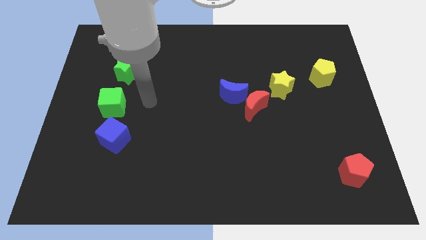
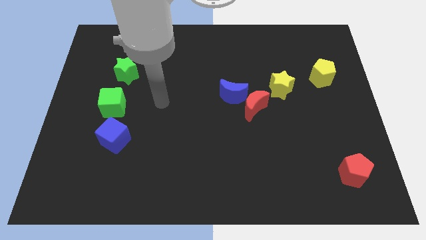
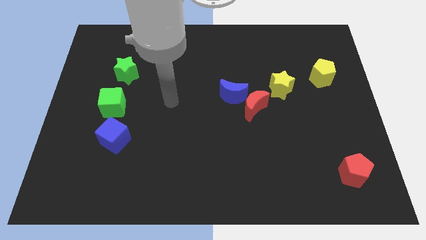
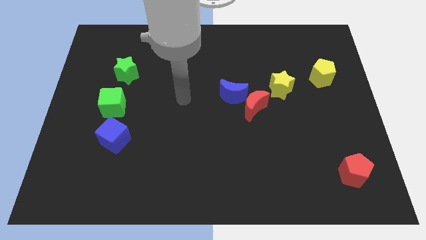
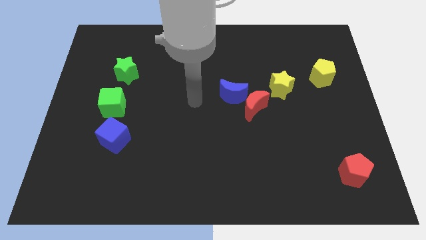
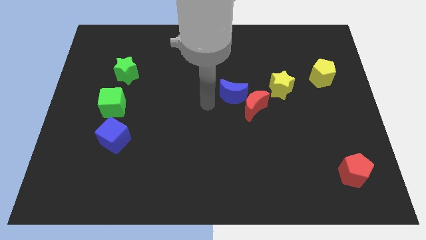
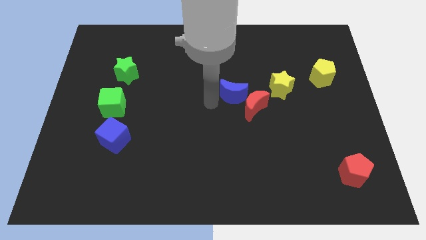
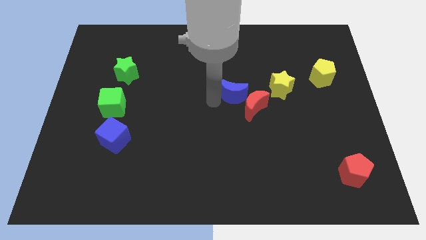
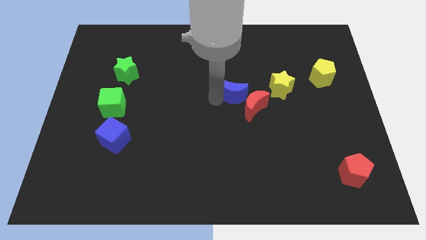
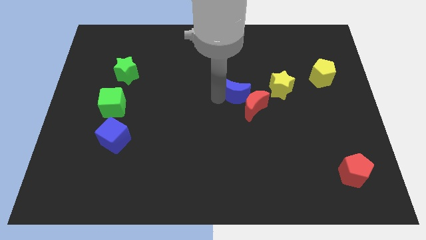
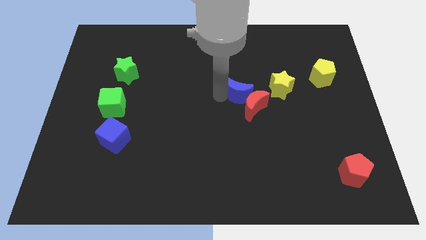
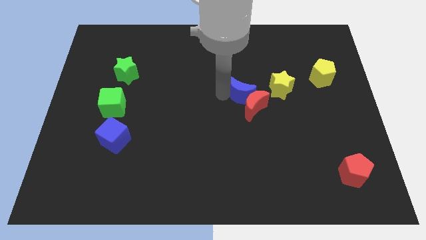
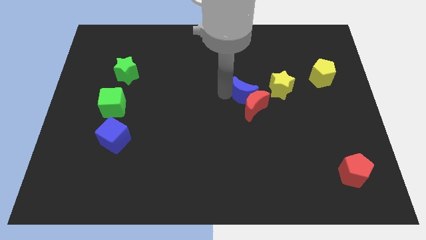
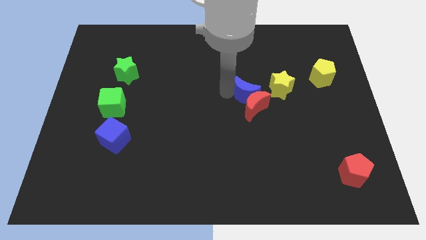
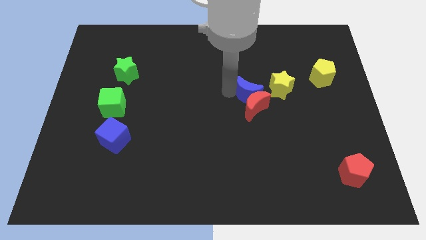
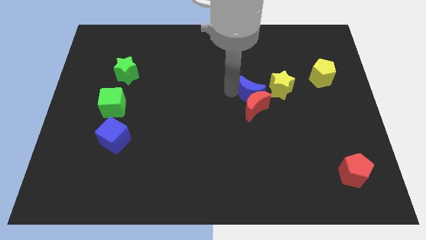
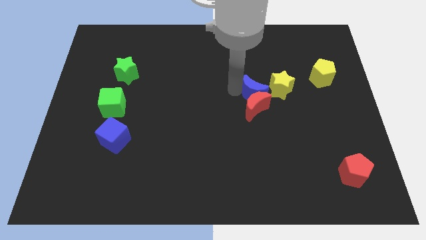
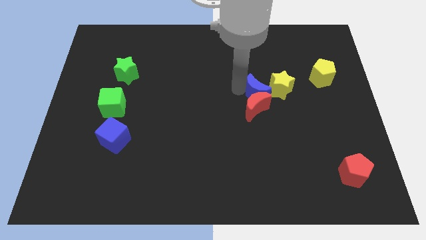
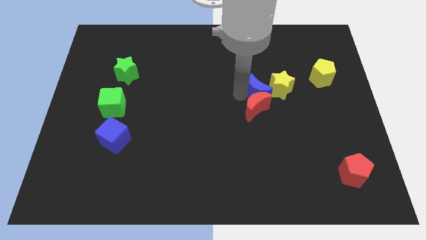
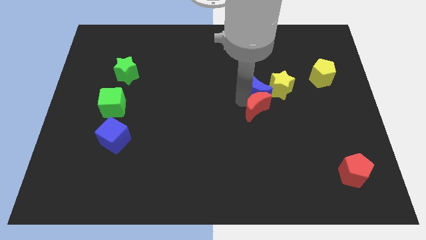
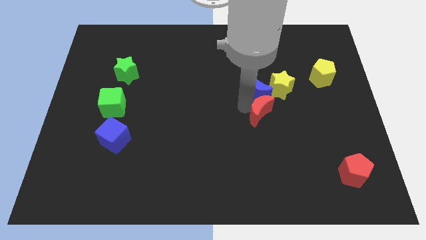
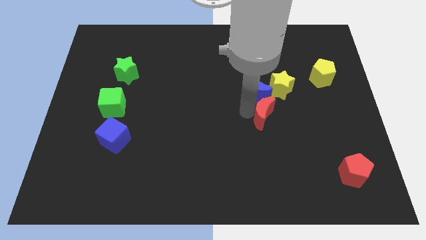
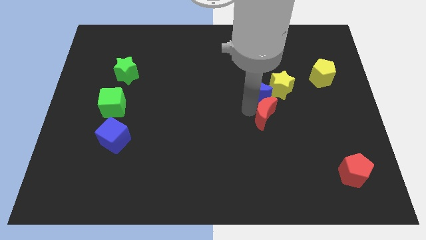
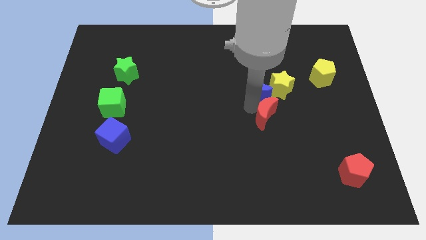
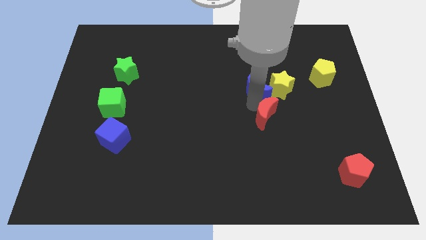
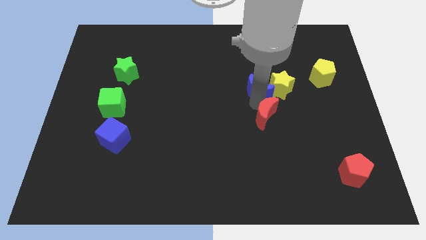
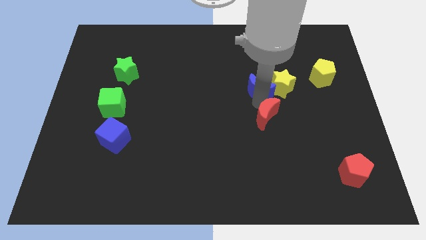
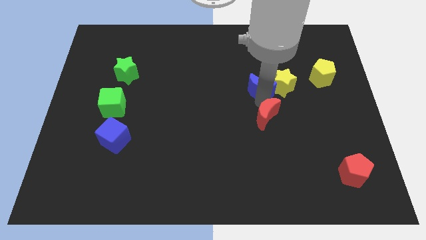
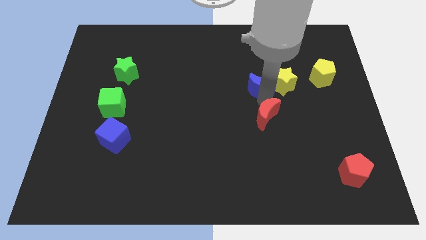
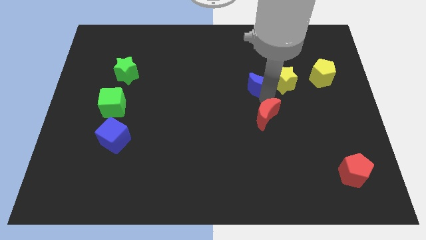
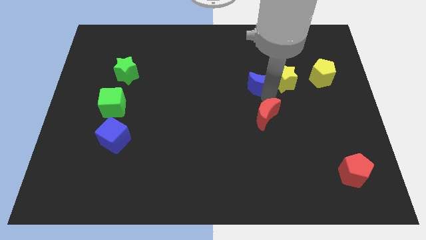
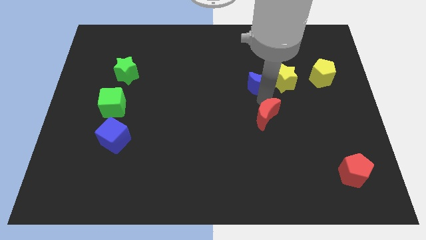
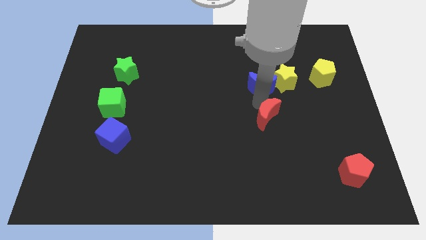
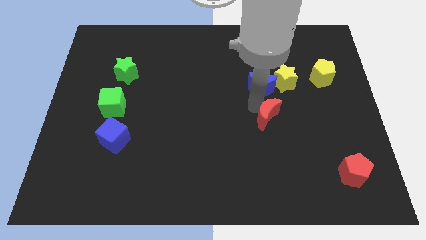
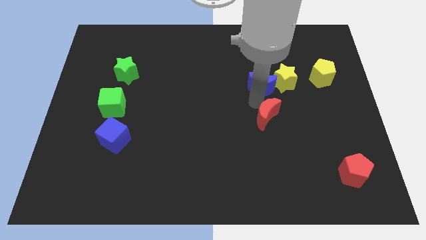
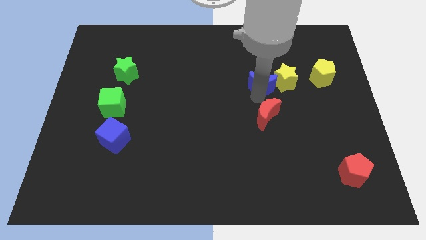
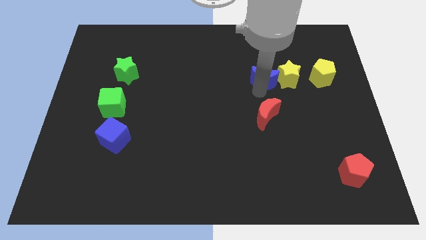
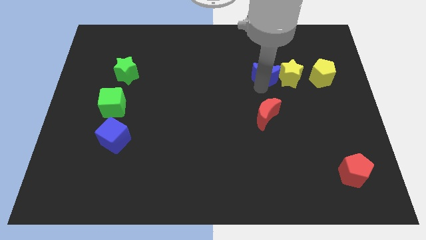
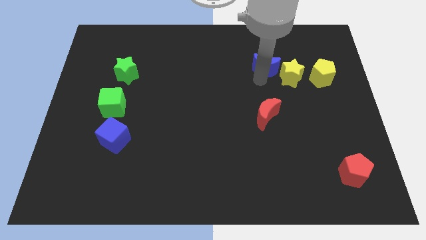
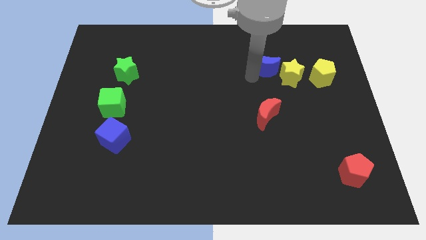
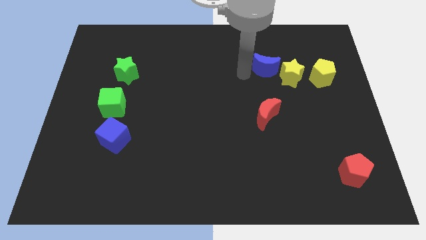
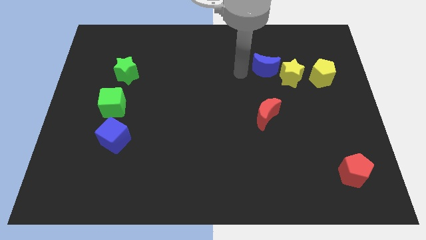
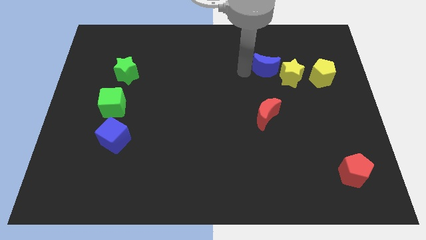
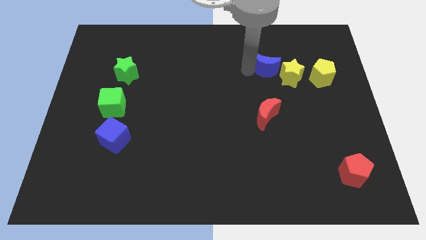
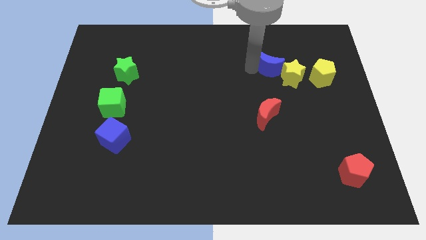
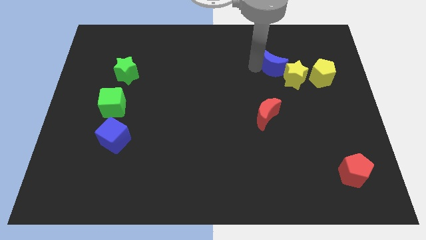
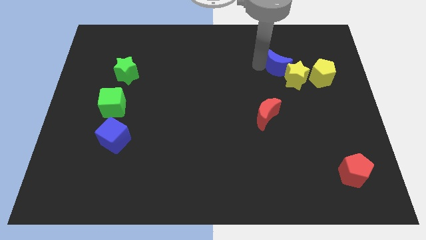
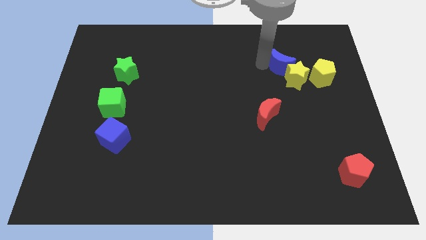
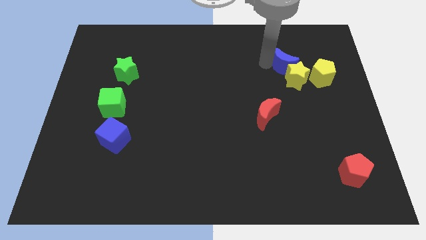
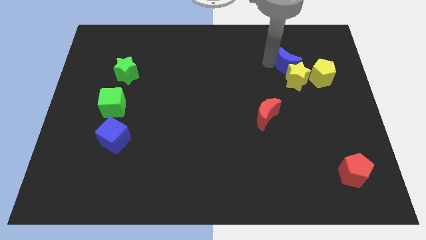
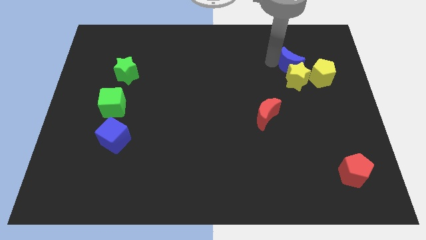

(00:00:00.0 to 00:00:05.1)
slide the blue moon to the top right side of the yellow star

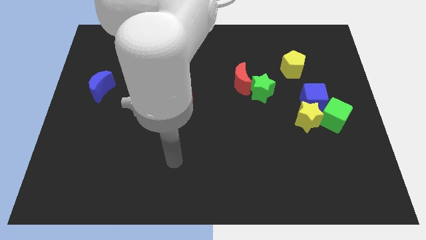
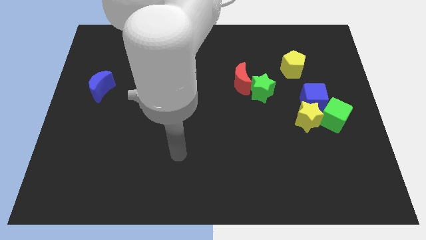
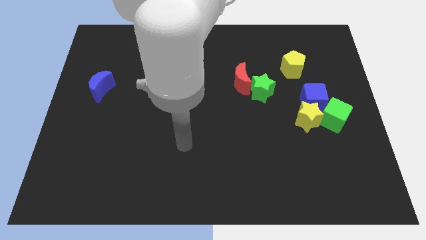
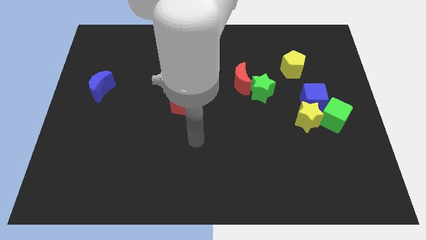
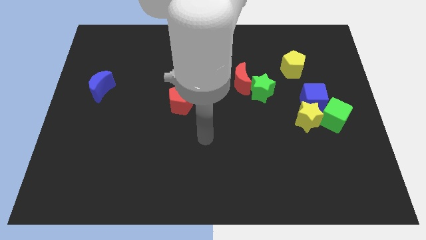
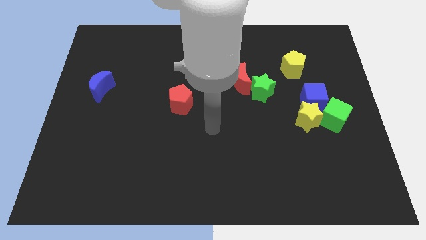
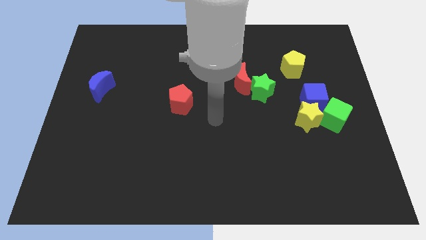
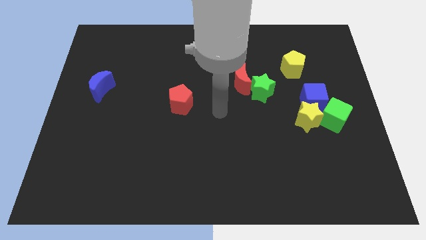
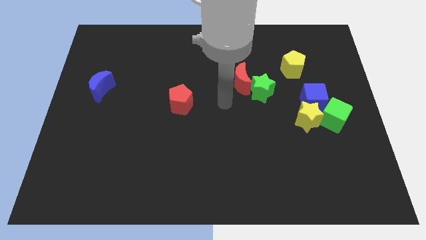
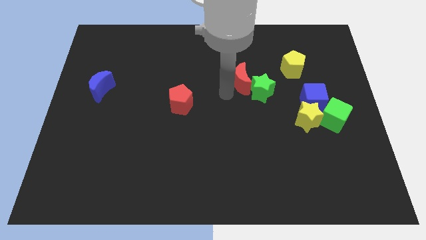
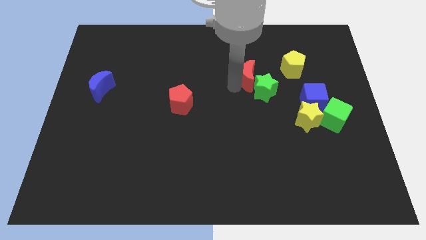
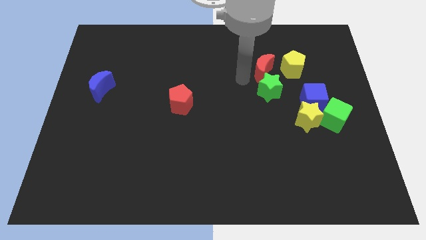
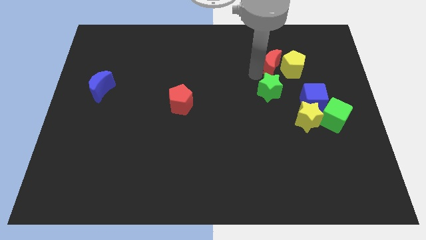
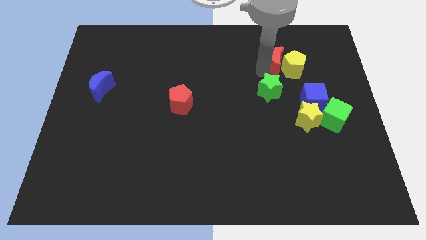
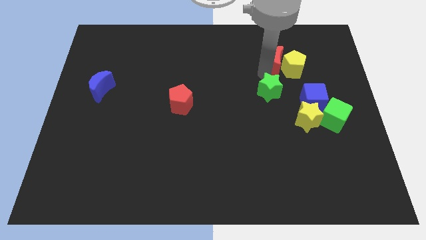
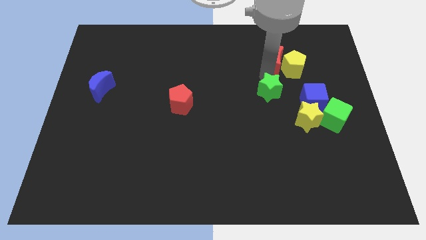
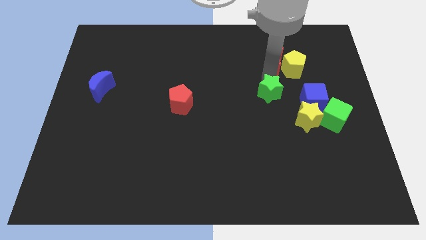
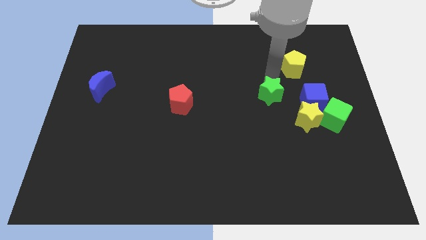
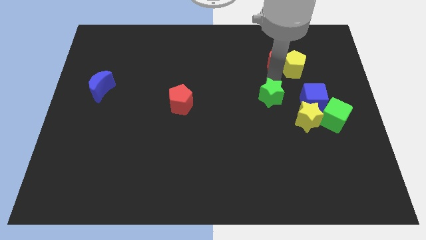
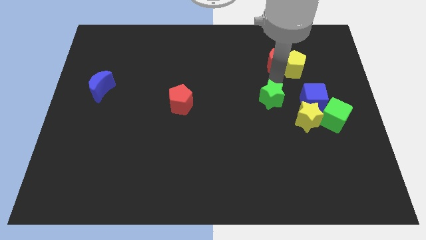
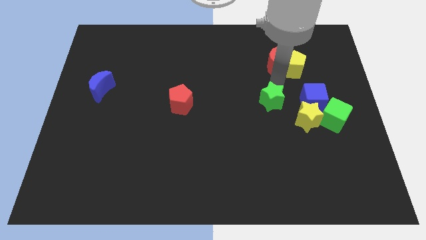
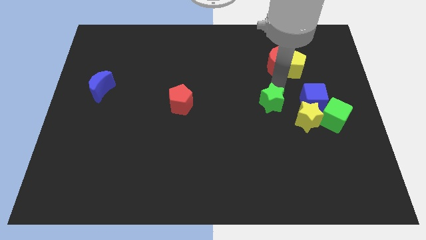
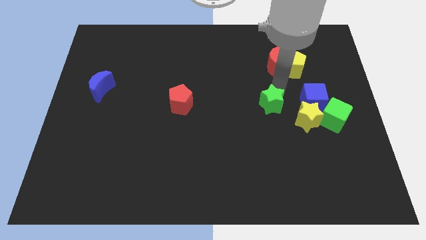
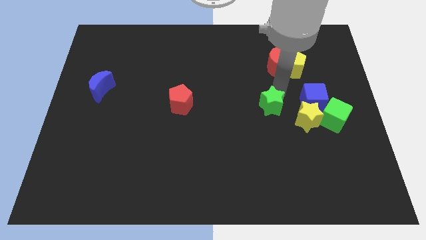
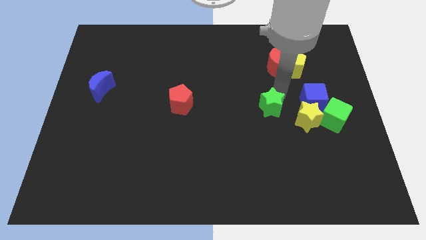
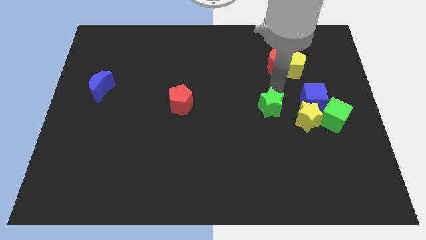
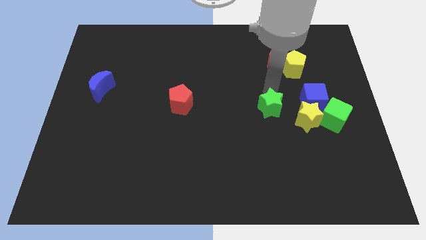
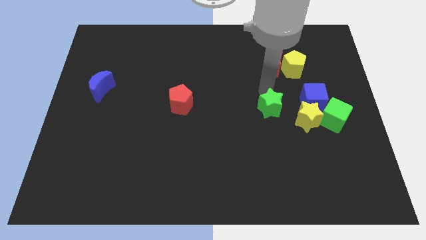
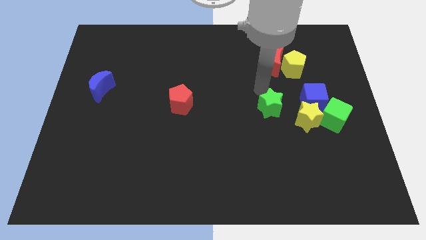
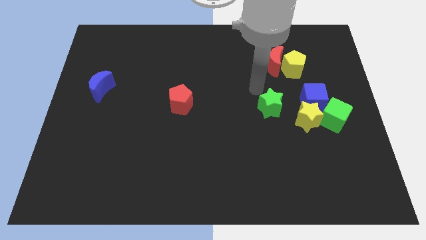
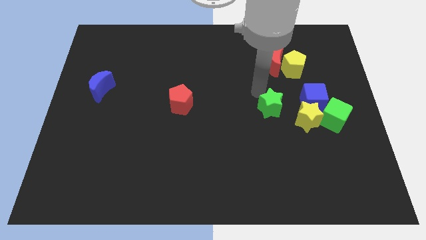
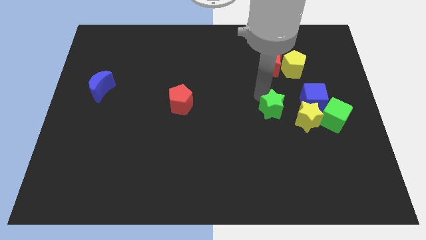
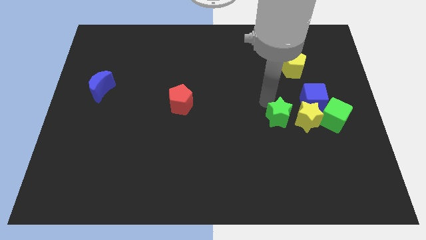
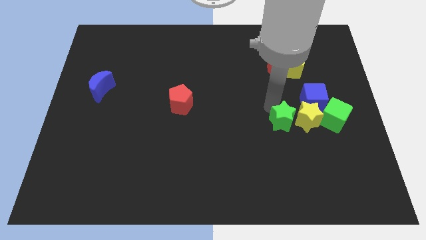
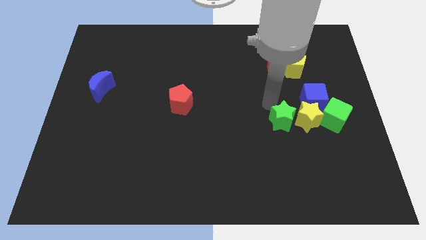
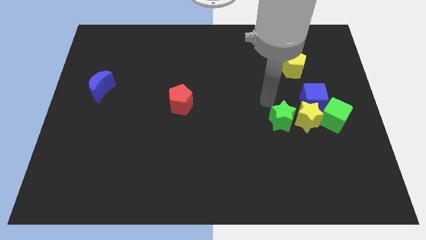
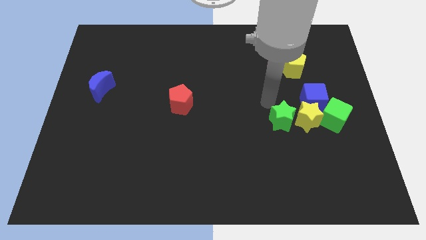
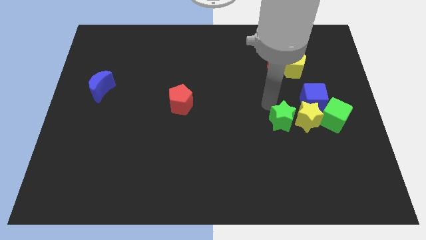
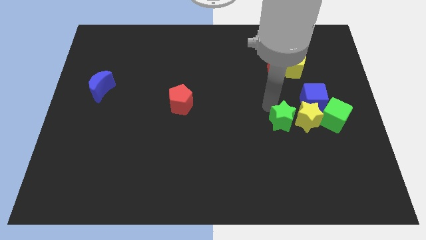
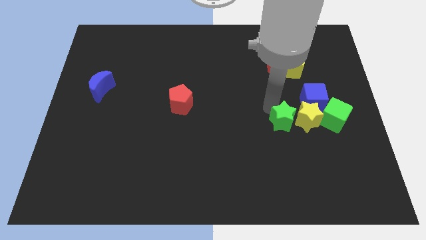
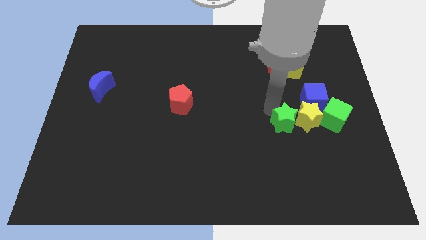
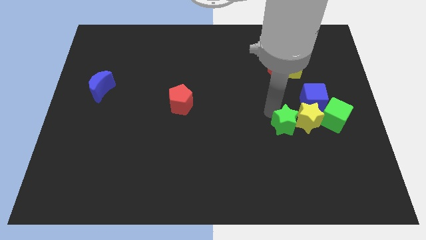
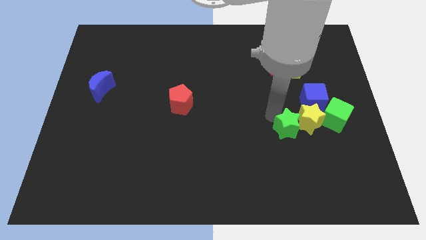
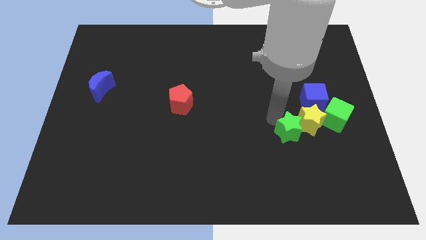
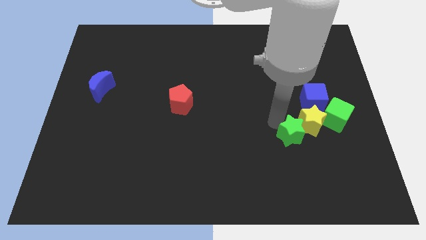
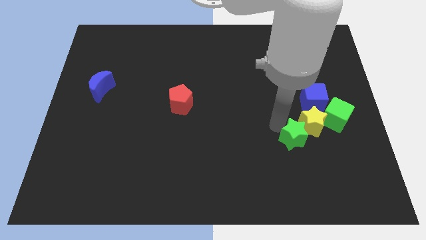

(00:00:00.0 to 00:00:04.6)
put the green star to the bottom side of the yellow star
